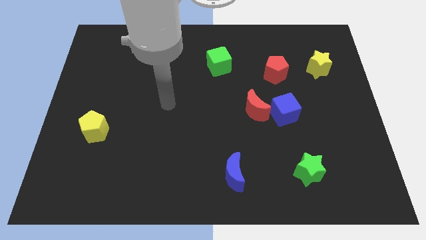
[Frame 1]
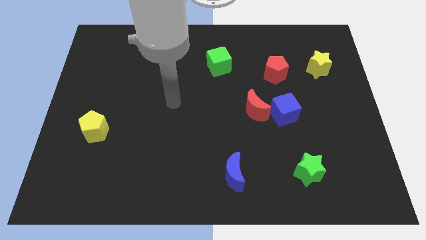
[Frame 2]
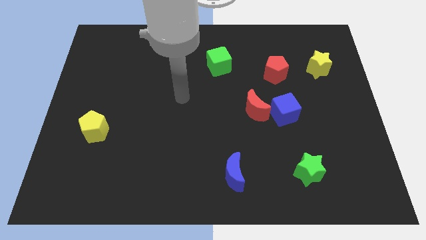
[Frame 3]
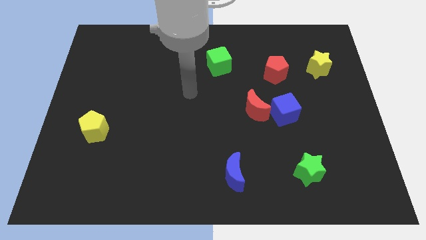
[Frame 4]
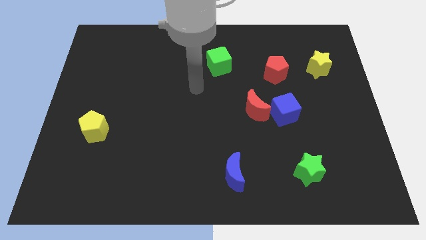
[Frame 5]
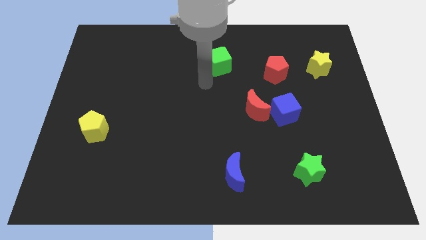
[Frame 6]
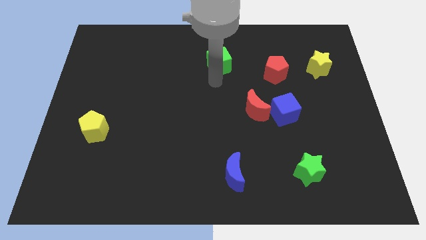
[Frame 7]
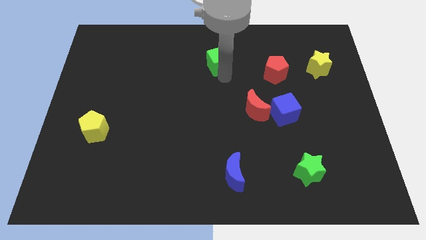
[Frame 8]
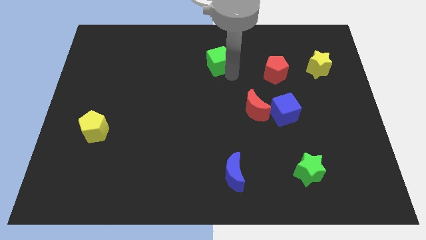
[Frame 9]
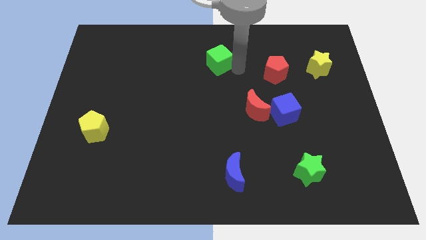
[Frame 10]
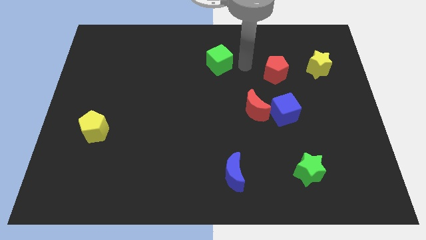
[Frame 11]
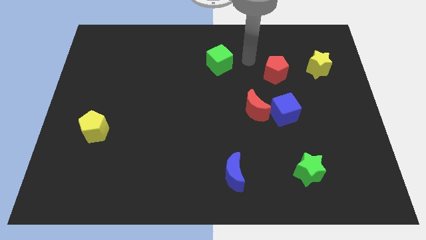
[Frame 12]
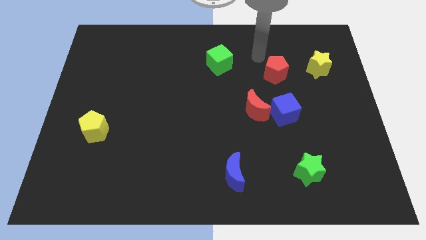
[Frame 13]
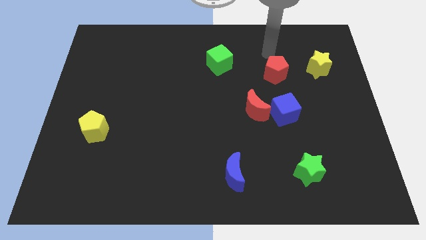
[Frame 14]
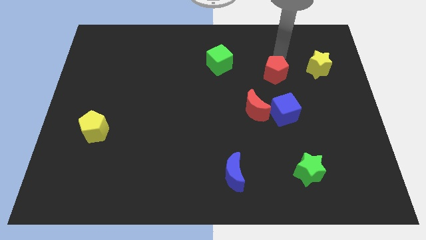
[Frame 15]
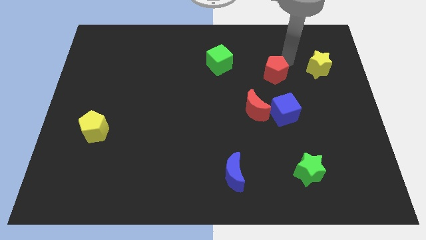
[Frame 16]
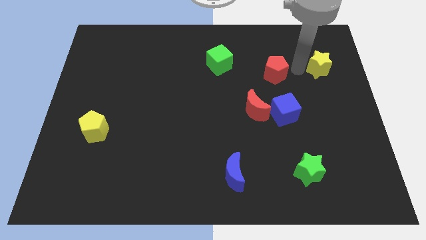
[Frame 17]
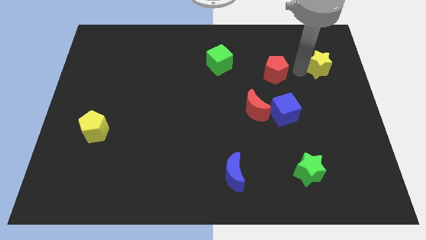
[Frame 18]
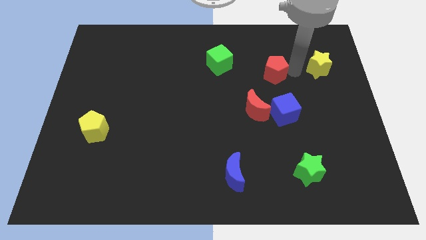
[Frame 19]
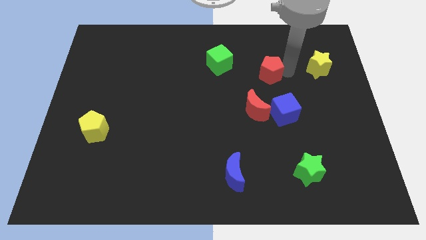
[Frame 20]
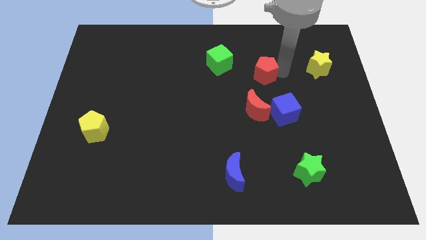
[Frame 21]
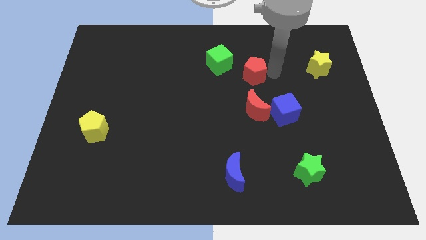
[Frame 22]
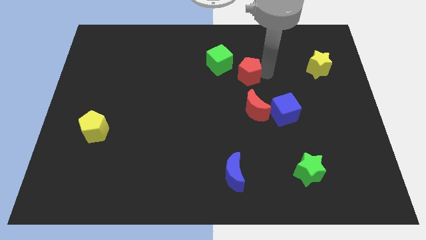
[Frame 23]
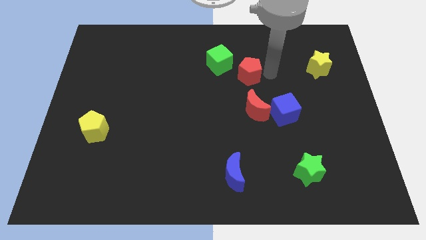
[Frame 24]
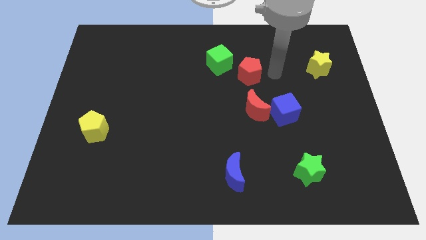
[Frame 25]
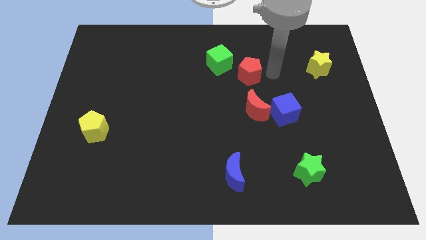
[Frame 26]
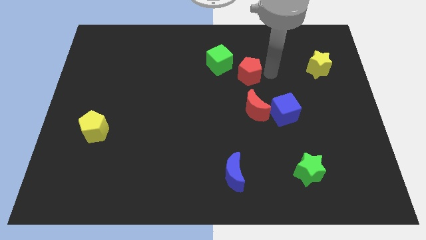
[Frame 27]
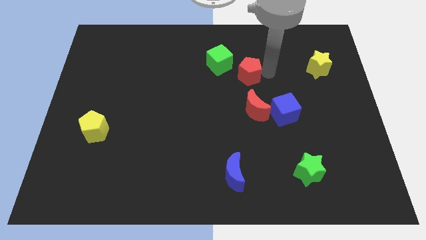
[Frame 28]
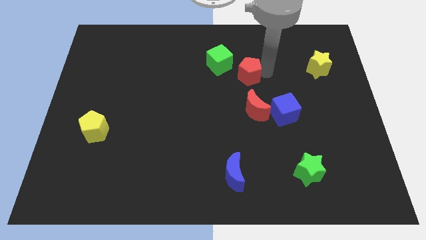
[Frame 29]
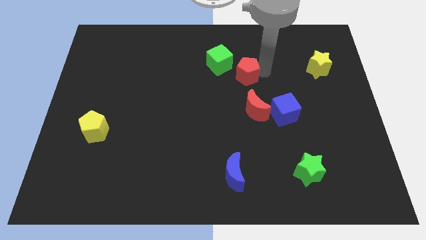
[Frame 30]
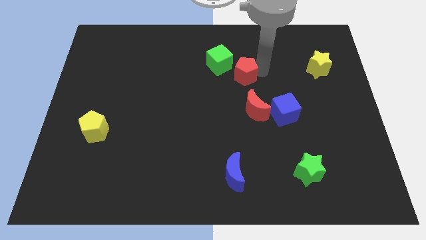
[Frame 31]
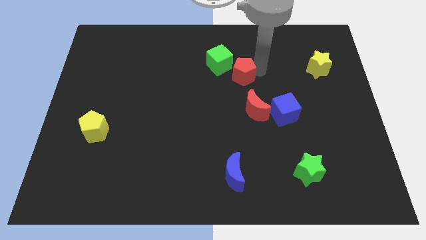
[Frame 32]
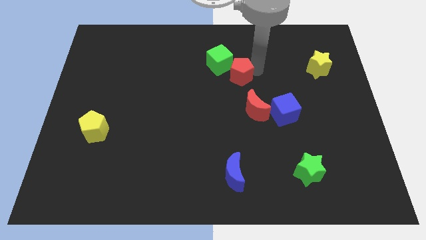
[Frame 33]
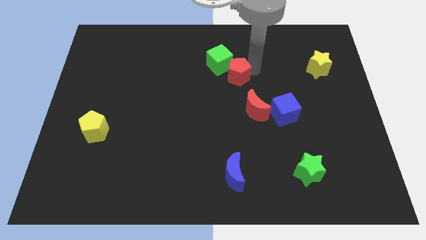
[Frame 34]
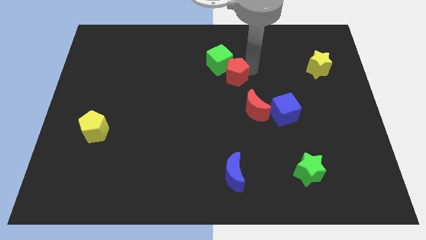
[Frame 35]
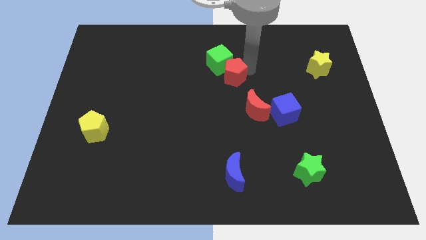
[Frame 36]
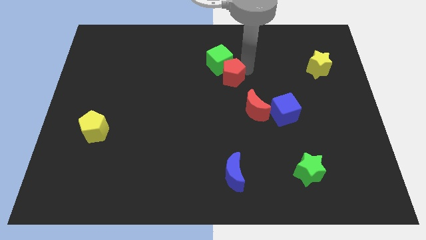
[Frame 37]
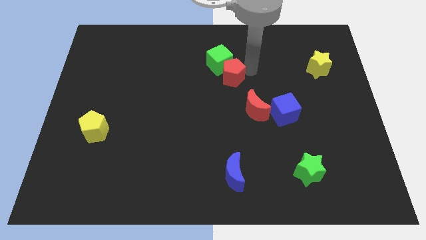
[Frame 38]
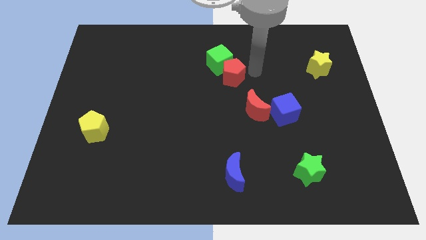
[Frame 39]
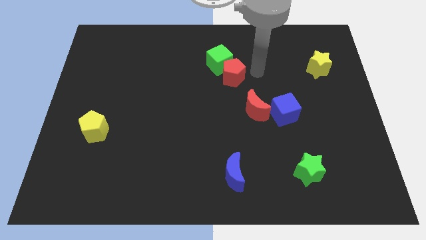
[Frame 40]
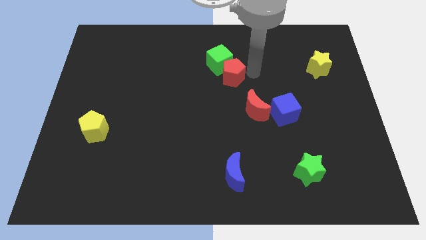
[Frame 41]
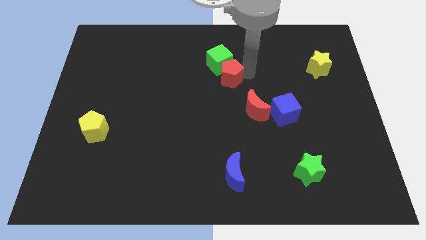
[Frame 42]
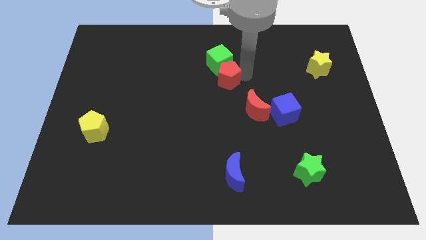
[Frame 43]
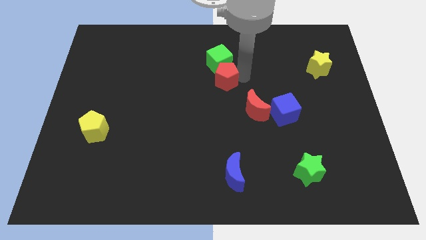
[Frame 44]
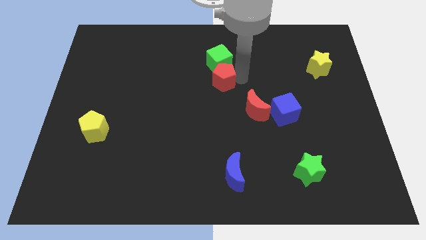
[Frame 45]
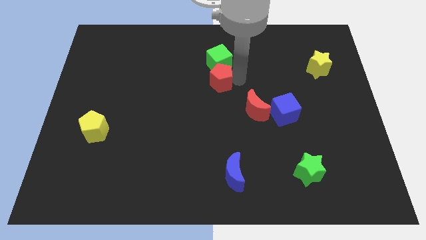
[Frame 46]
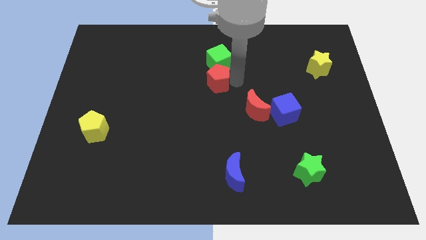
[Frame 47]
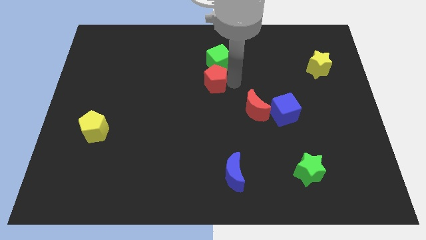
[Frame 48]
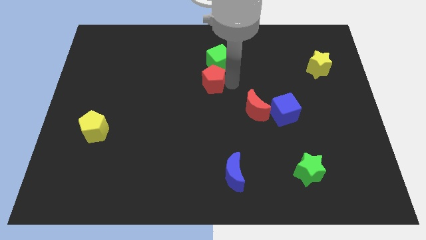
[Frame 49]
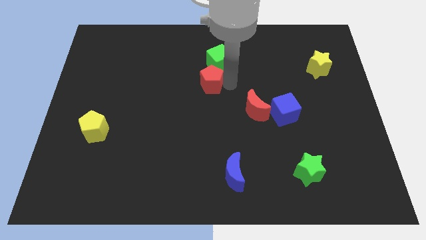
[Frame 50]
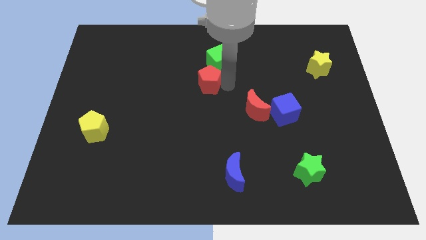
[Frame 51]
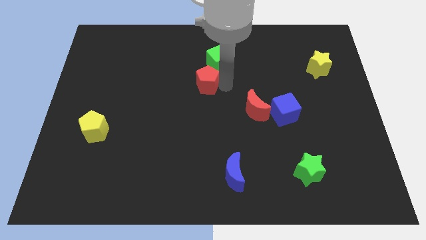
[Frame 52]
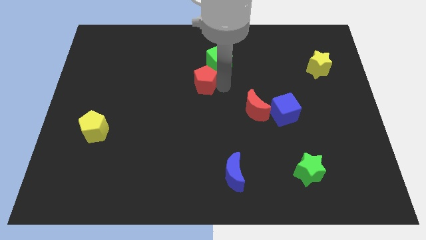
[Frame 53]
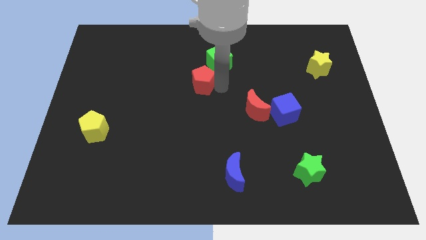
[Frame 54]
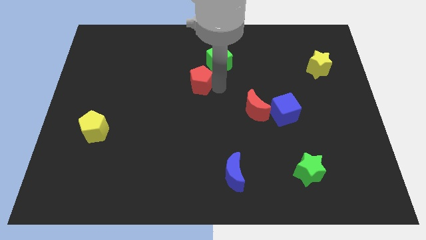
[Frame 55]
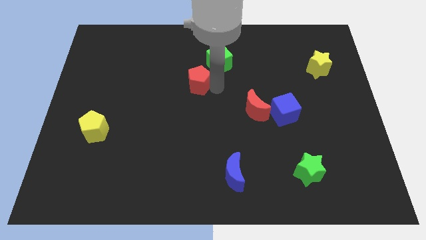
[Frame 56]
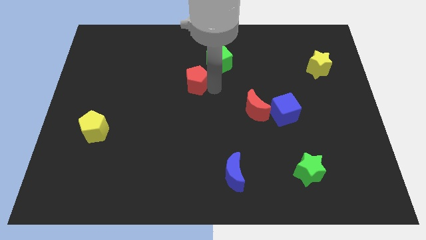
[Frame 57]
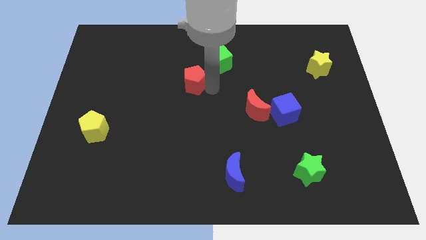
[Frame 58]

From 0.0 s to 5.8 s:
slide the red pentagon left

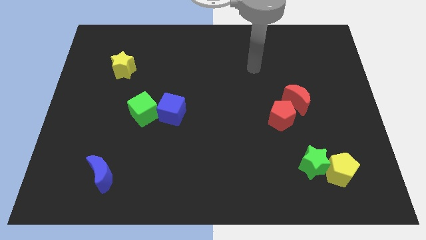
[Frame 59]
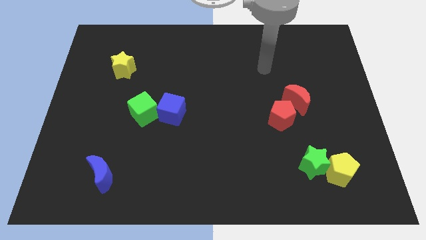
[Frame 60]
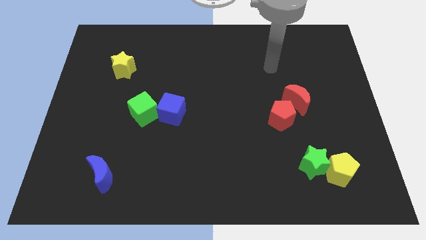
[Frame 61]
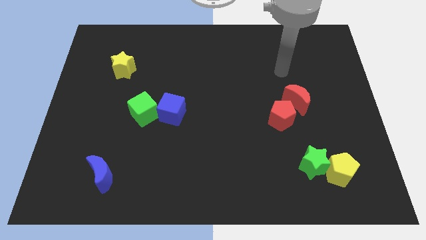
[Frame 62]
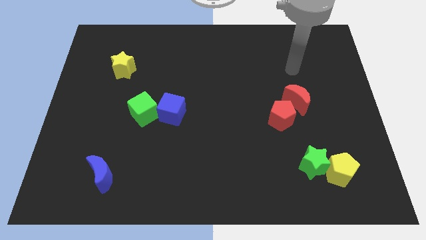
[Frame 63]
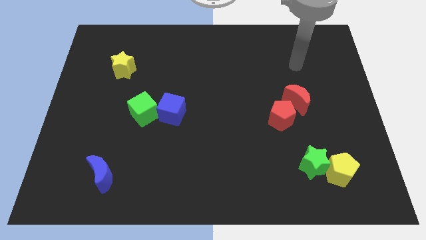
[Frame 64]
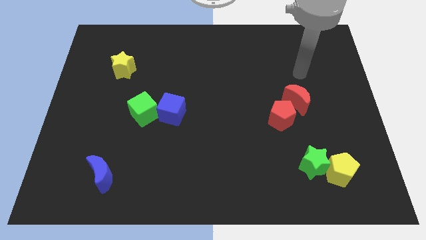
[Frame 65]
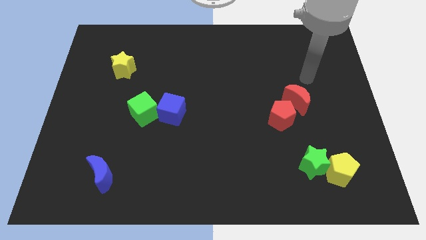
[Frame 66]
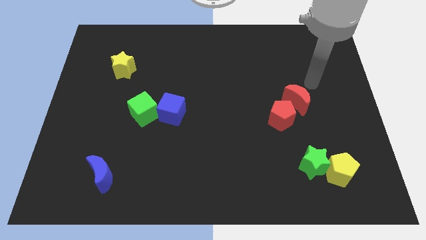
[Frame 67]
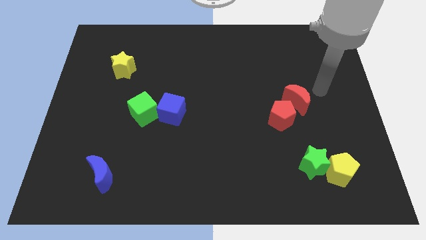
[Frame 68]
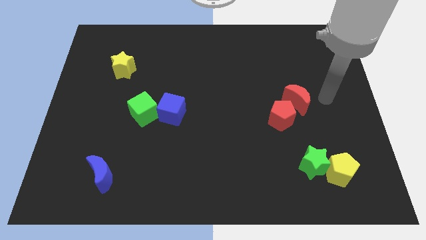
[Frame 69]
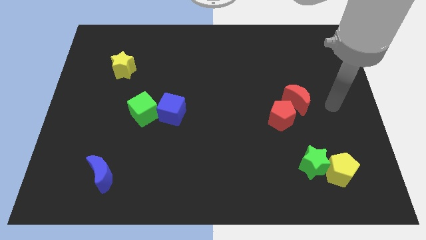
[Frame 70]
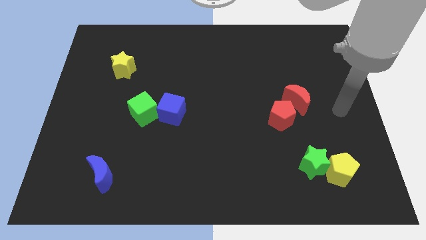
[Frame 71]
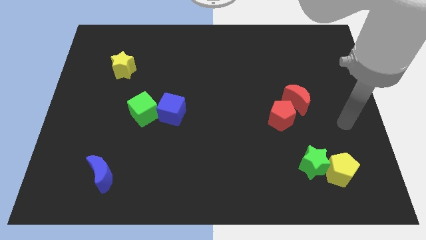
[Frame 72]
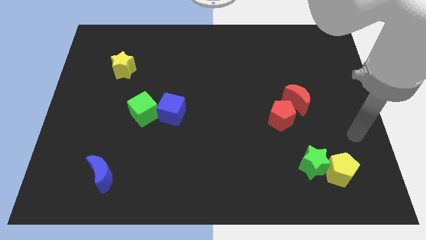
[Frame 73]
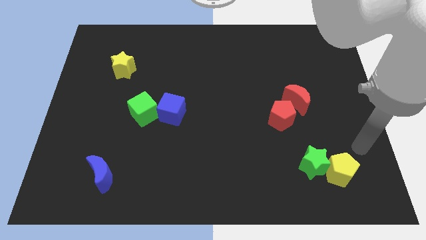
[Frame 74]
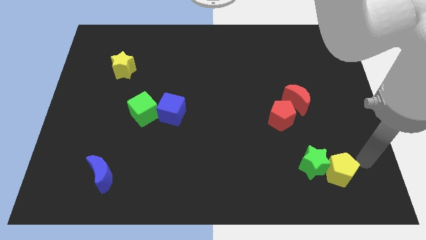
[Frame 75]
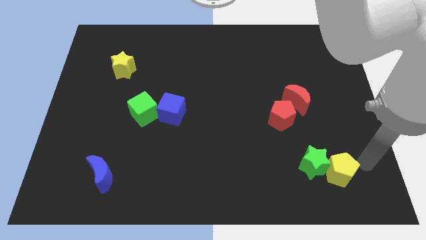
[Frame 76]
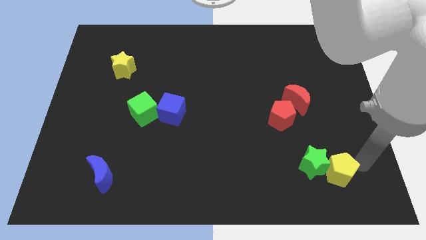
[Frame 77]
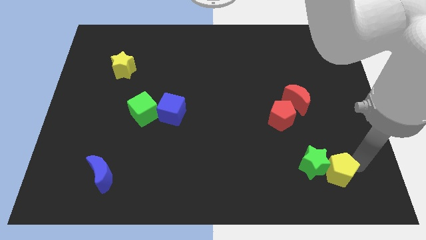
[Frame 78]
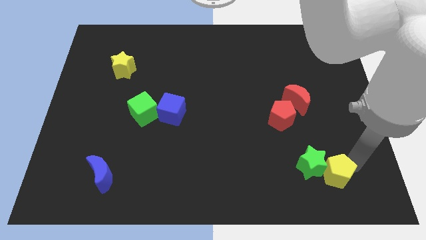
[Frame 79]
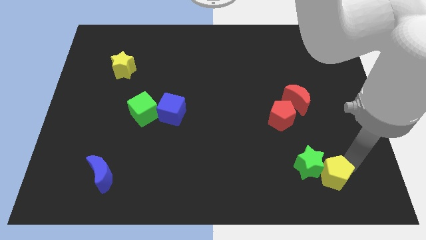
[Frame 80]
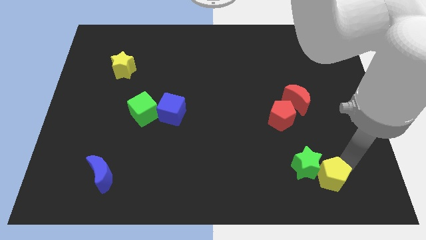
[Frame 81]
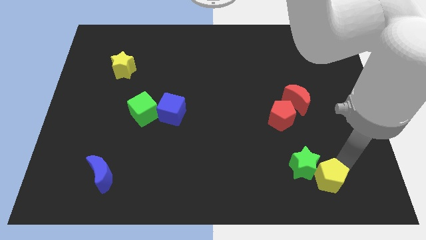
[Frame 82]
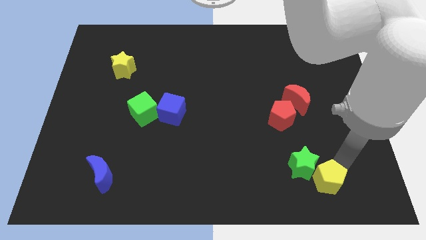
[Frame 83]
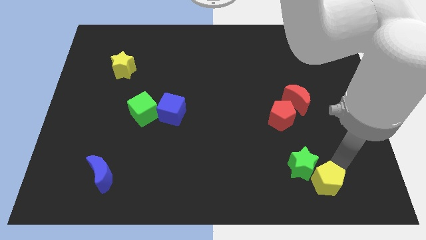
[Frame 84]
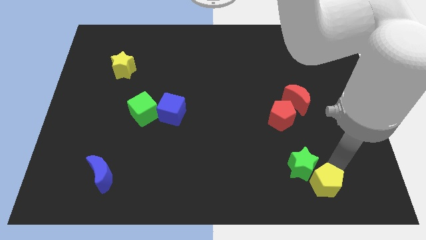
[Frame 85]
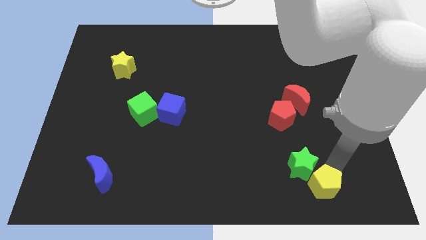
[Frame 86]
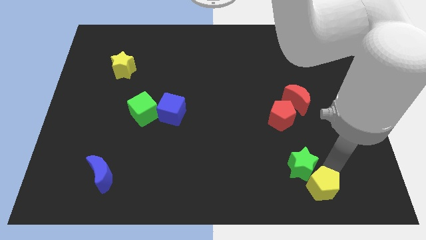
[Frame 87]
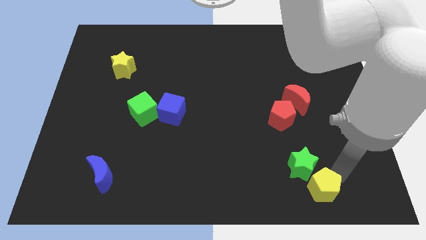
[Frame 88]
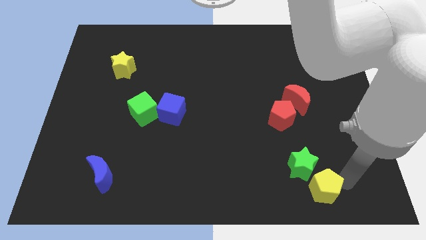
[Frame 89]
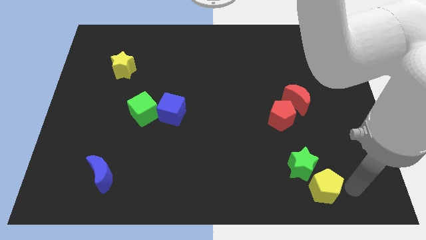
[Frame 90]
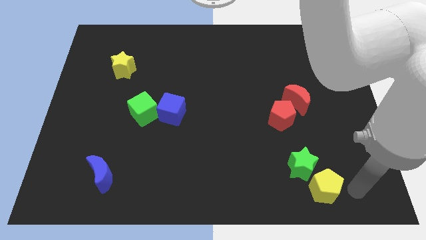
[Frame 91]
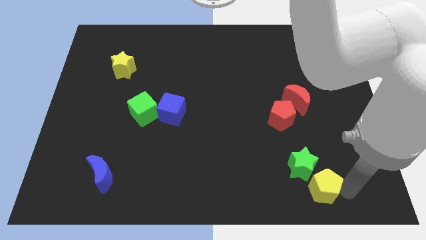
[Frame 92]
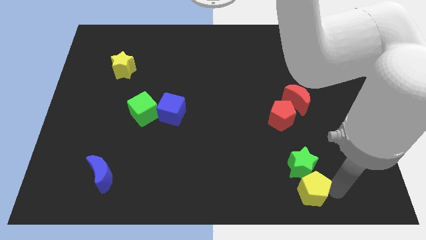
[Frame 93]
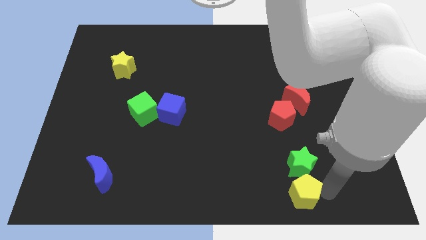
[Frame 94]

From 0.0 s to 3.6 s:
slide the yellow pentagon a bit left
